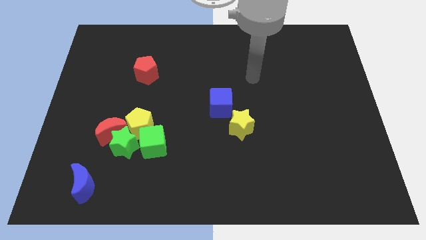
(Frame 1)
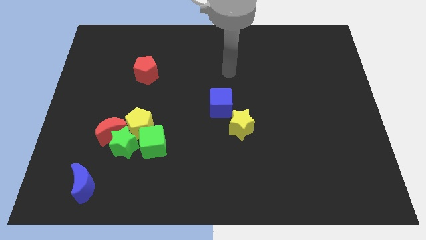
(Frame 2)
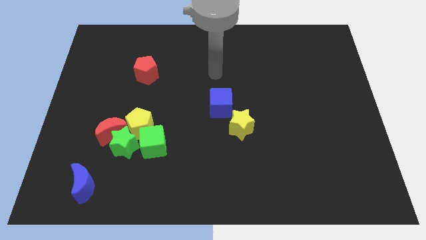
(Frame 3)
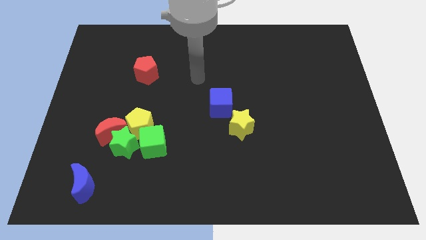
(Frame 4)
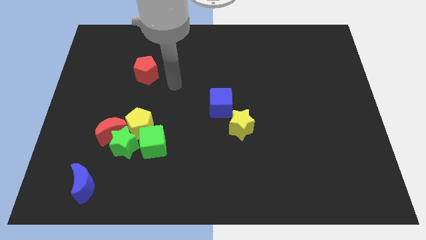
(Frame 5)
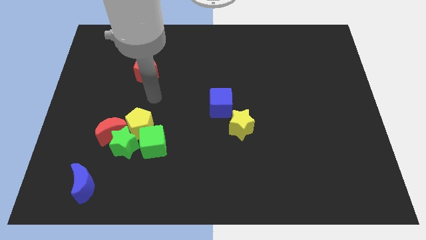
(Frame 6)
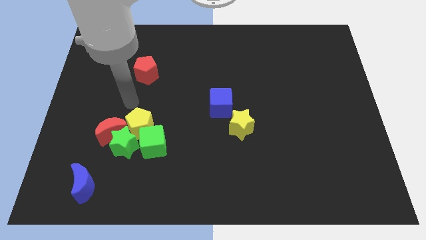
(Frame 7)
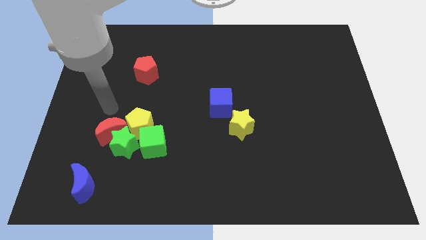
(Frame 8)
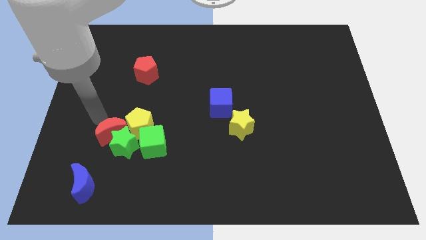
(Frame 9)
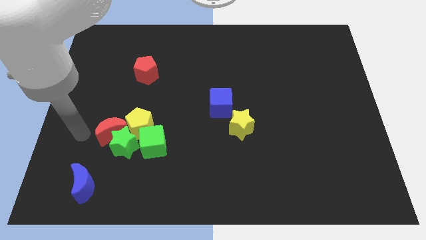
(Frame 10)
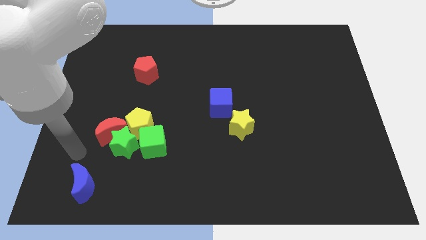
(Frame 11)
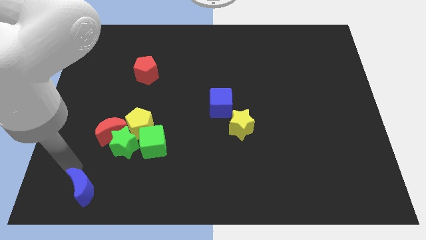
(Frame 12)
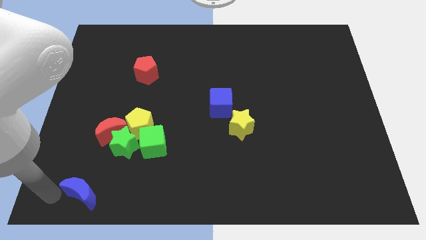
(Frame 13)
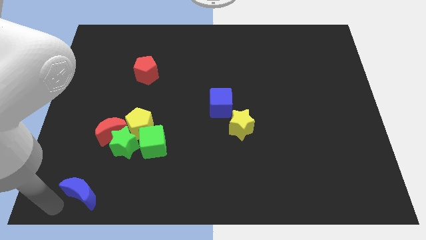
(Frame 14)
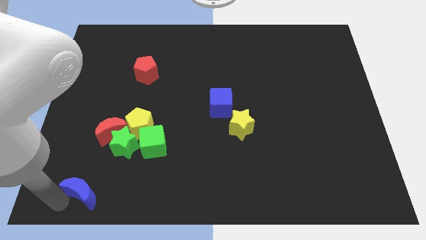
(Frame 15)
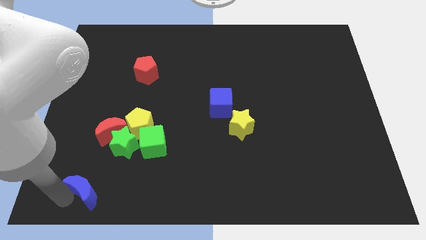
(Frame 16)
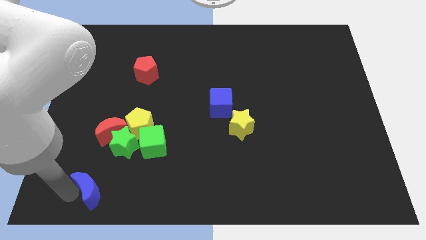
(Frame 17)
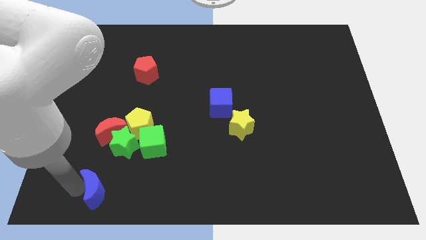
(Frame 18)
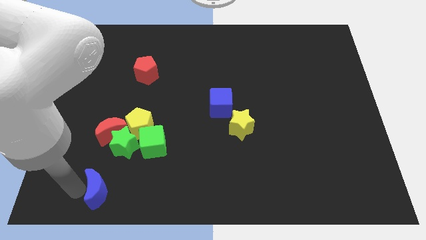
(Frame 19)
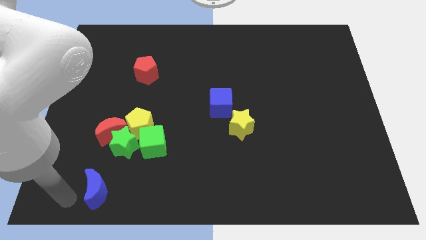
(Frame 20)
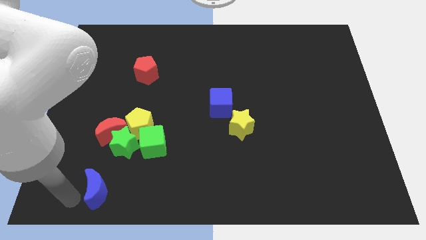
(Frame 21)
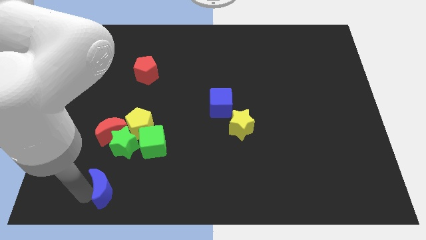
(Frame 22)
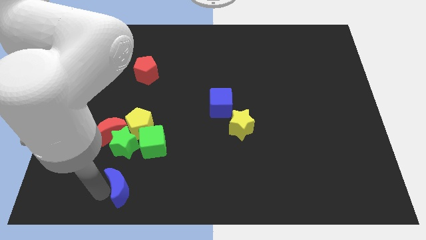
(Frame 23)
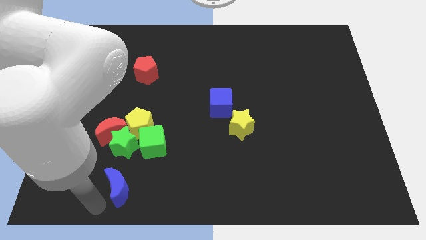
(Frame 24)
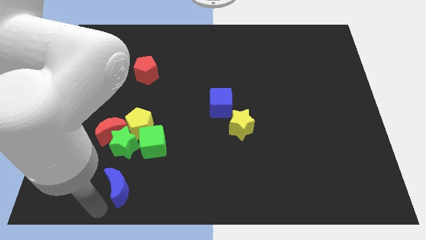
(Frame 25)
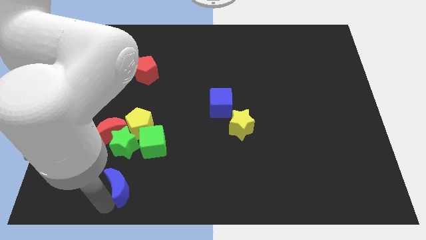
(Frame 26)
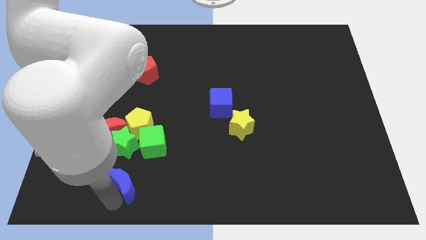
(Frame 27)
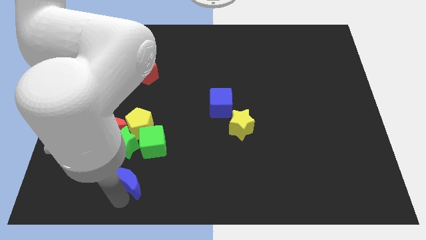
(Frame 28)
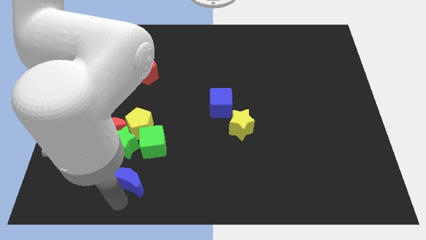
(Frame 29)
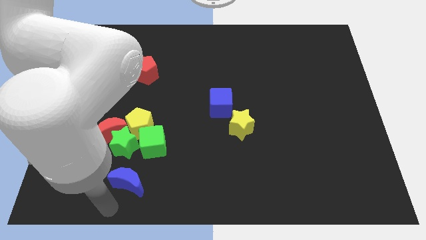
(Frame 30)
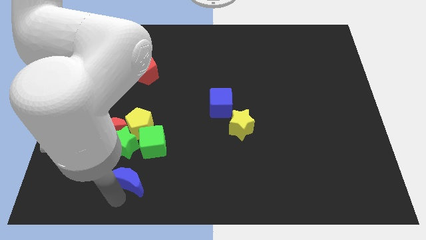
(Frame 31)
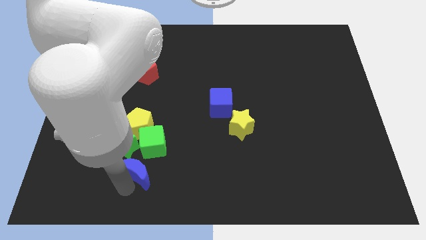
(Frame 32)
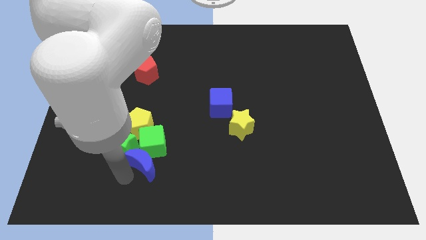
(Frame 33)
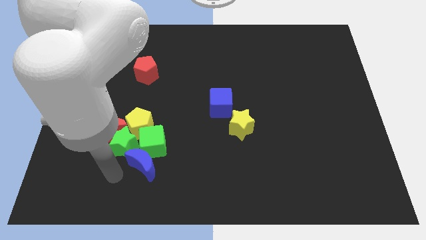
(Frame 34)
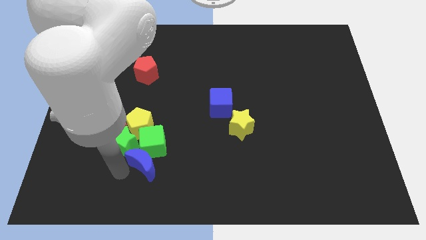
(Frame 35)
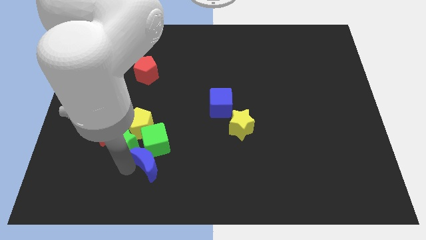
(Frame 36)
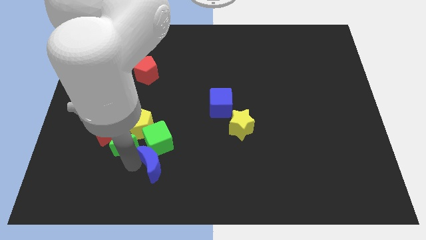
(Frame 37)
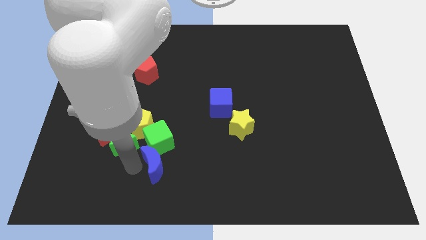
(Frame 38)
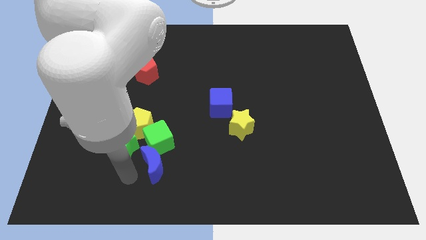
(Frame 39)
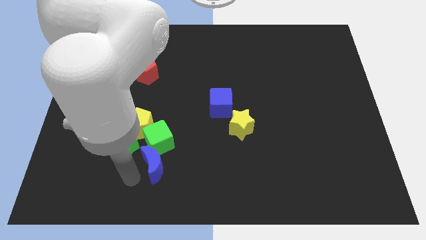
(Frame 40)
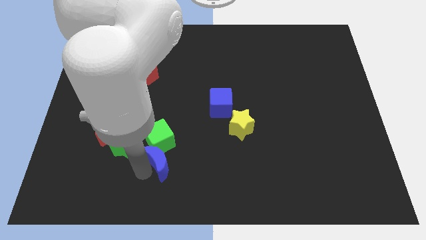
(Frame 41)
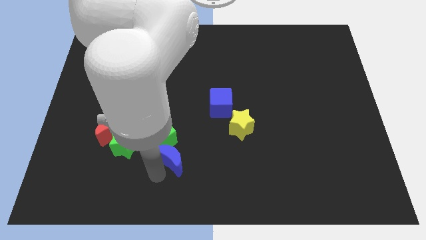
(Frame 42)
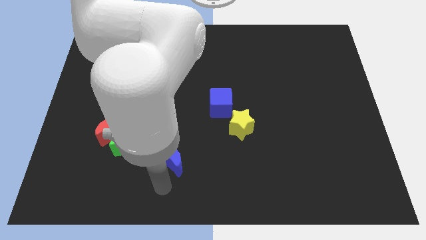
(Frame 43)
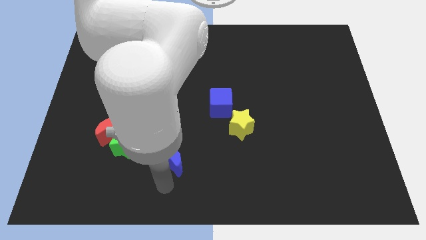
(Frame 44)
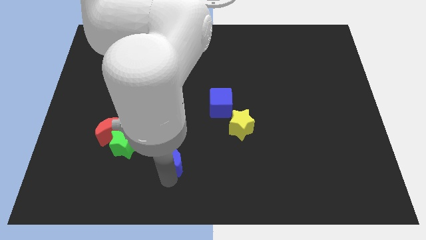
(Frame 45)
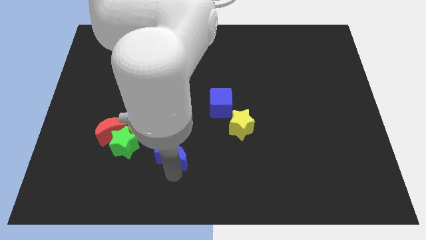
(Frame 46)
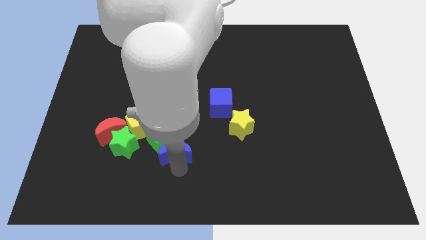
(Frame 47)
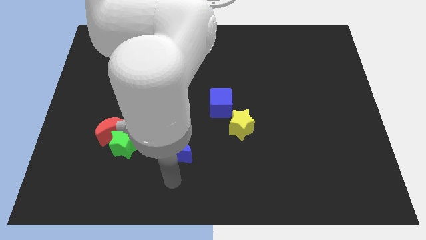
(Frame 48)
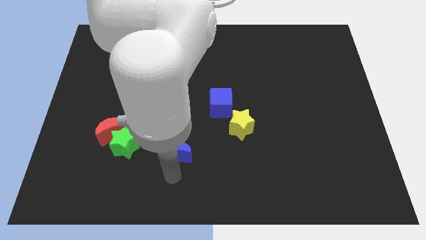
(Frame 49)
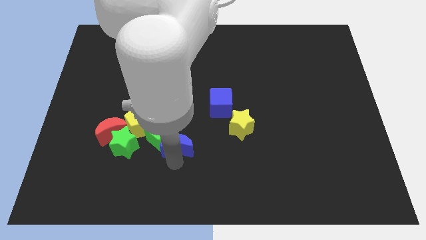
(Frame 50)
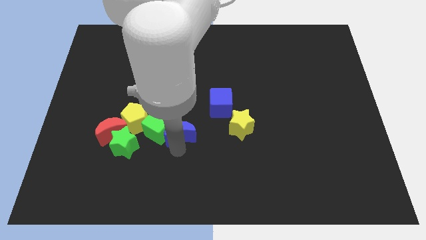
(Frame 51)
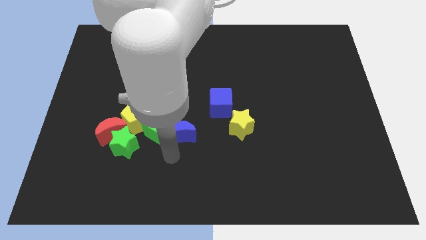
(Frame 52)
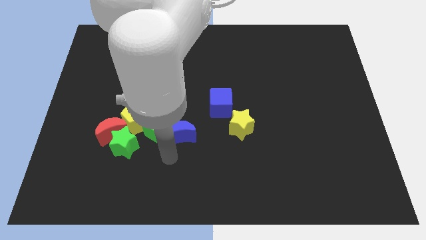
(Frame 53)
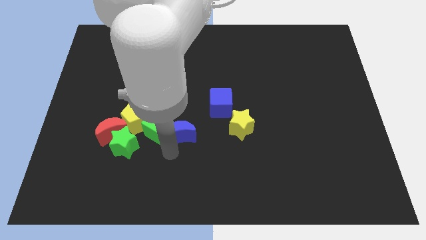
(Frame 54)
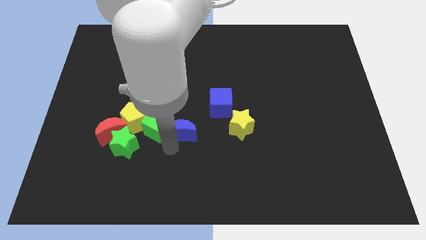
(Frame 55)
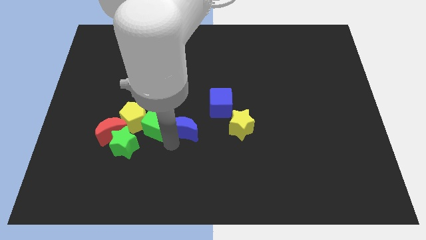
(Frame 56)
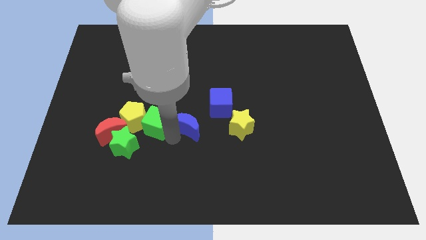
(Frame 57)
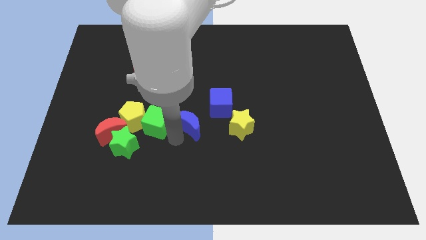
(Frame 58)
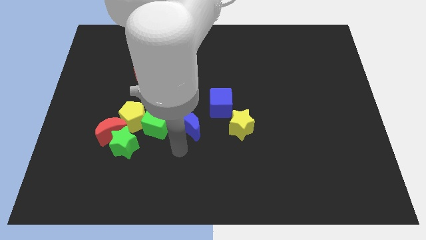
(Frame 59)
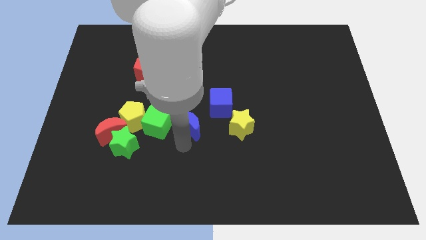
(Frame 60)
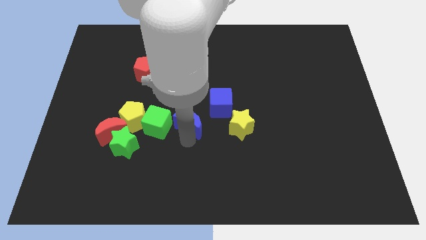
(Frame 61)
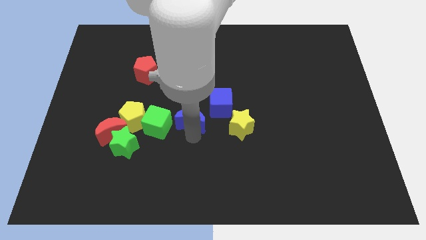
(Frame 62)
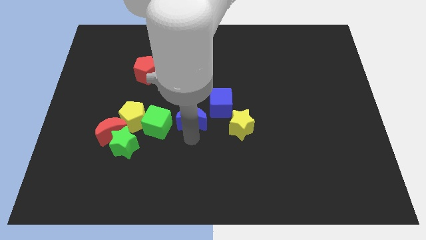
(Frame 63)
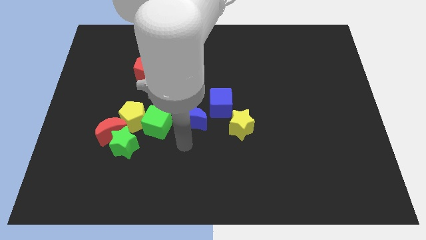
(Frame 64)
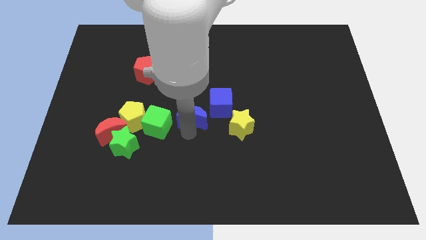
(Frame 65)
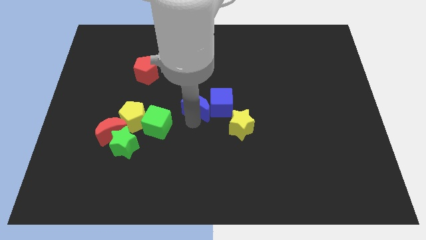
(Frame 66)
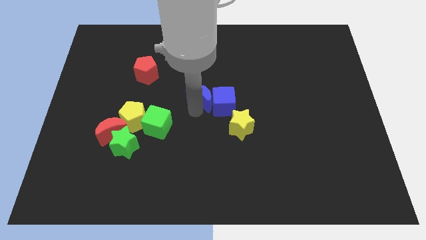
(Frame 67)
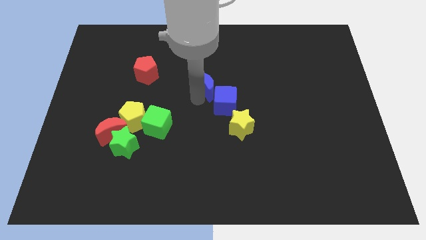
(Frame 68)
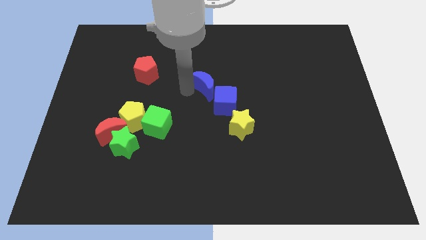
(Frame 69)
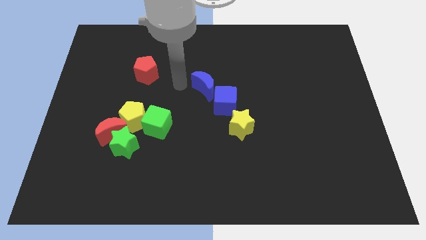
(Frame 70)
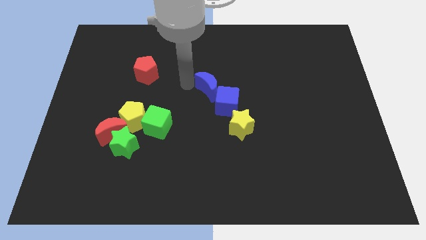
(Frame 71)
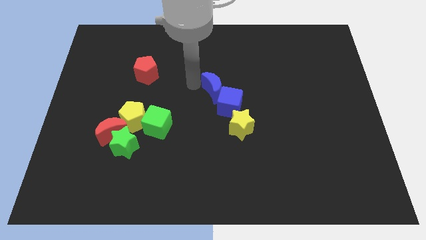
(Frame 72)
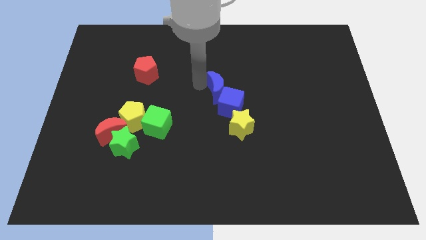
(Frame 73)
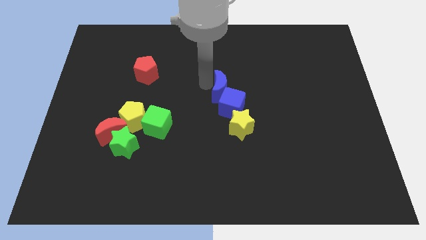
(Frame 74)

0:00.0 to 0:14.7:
move the blue moon to the top side of the yellow star
